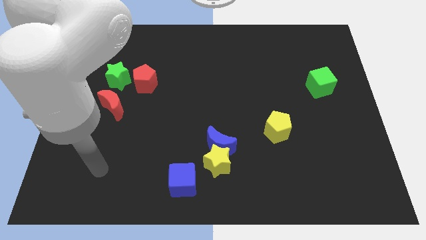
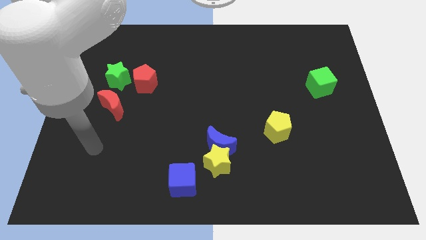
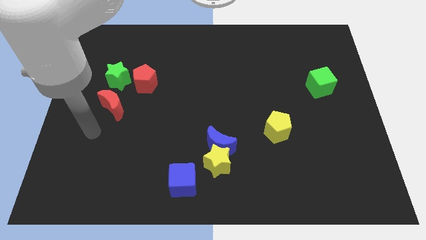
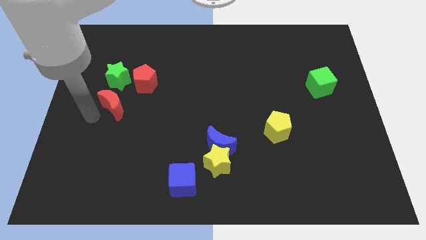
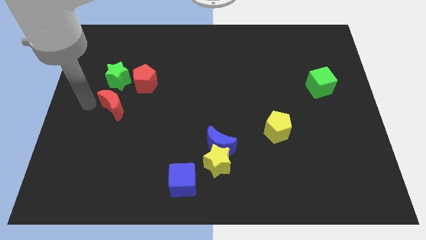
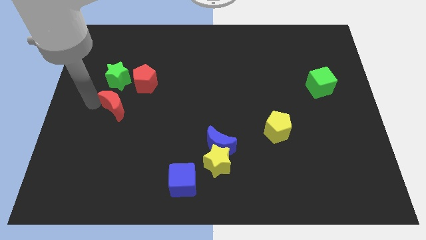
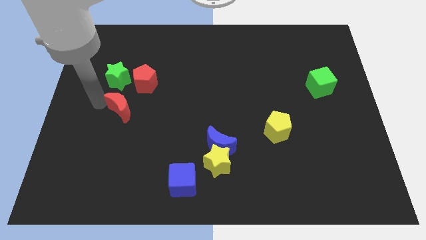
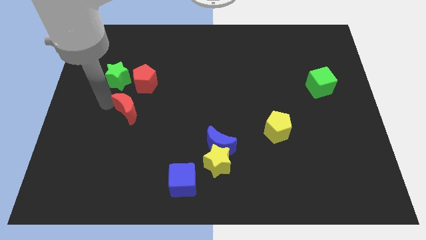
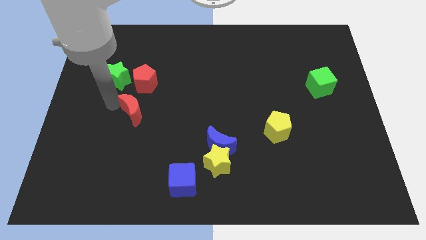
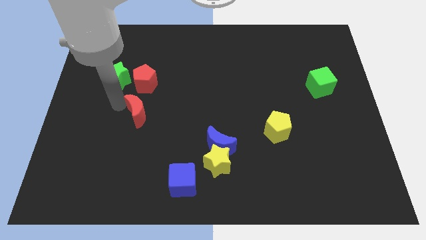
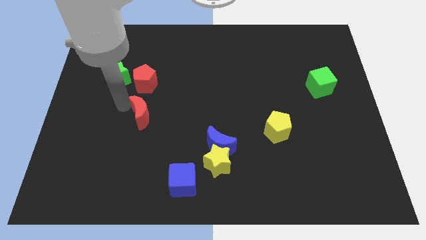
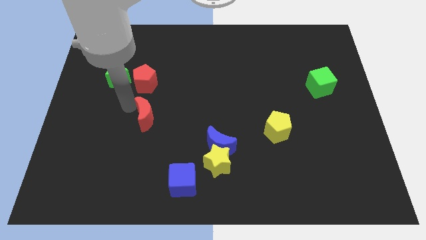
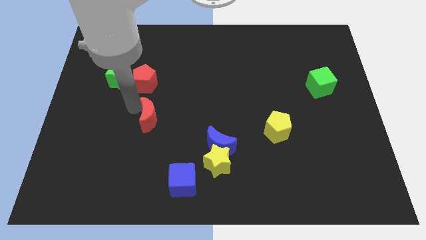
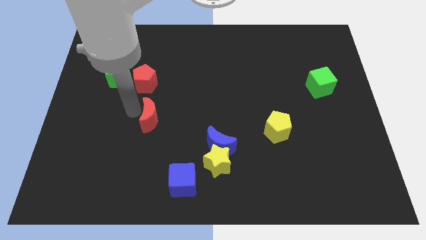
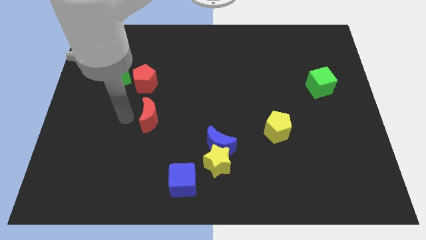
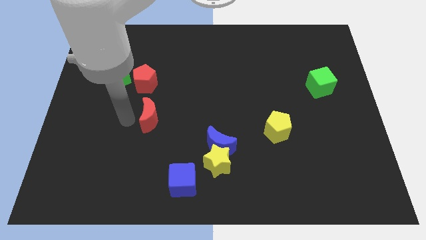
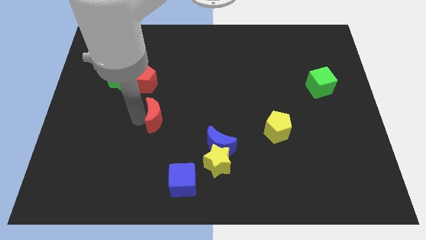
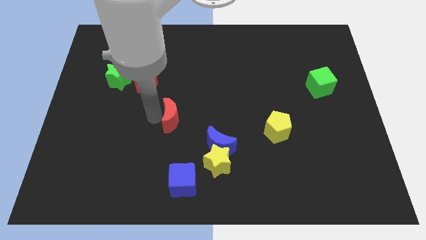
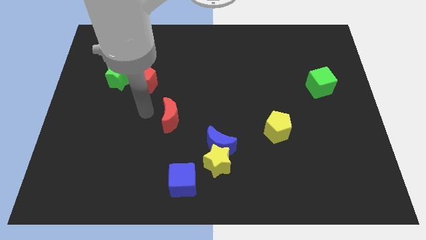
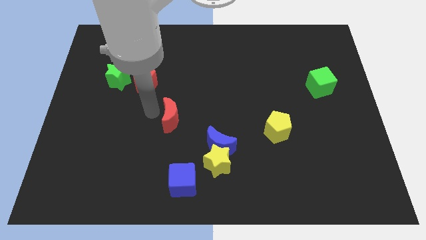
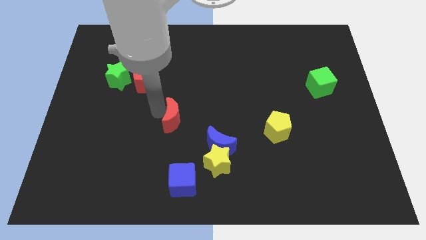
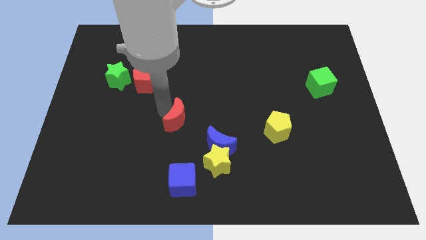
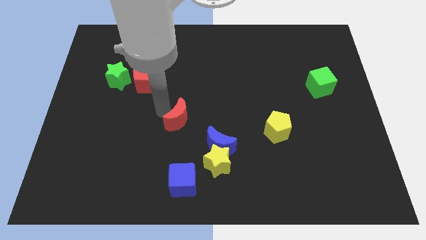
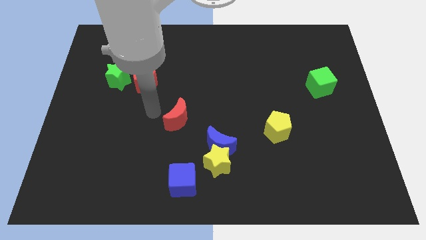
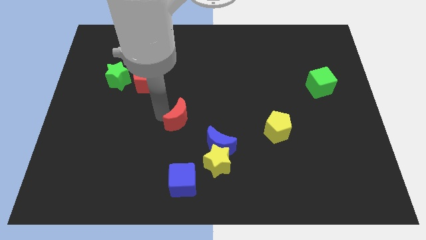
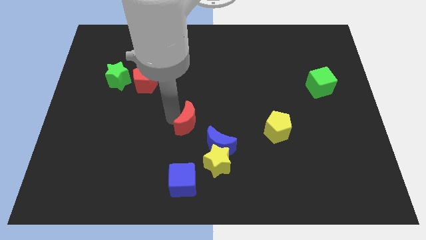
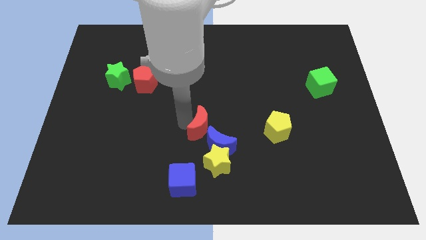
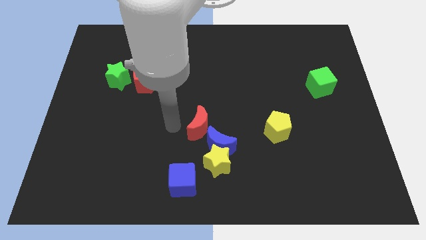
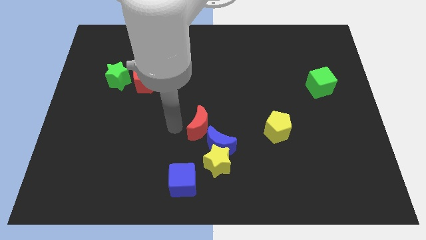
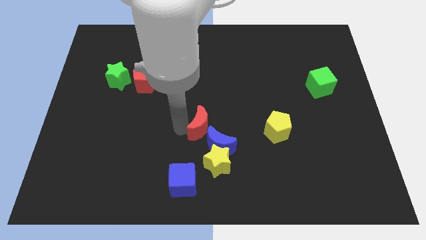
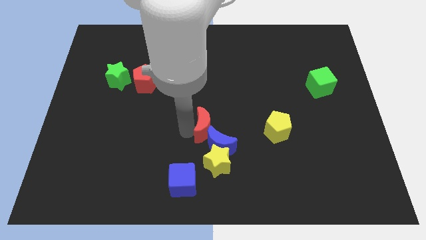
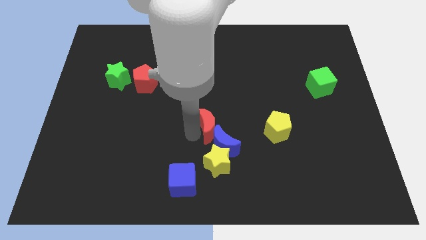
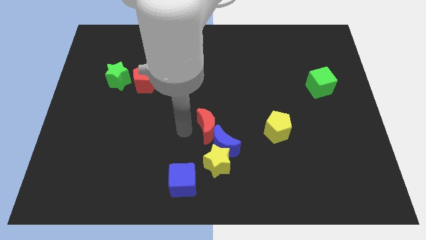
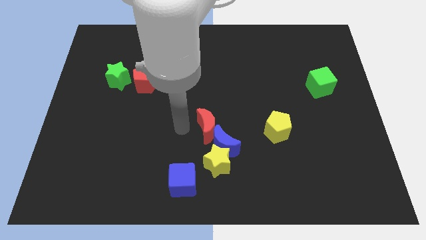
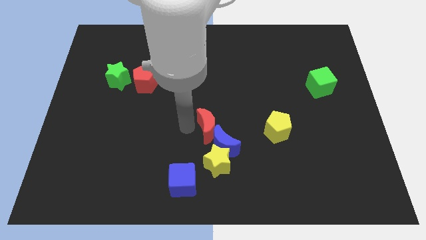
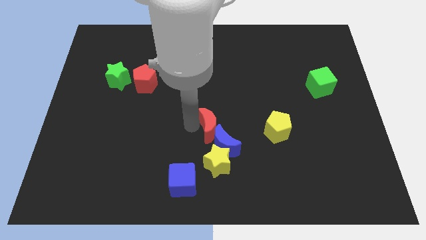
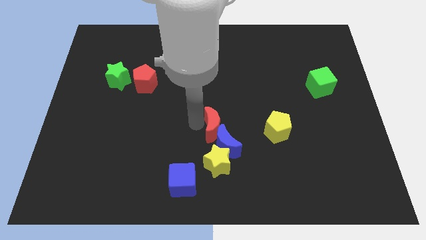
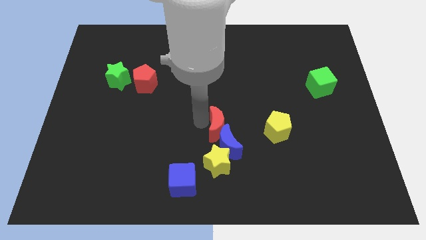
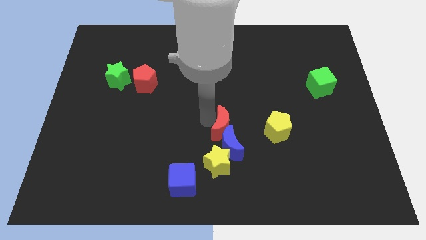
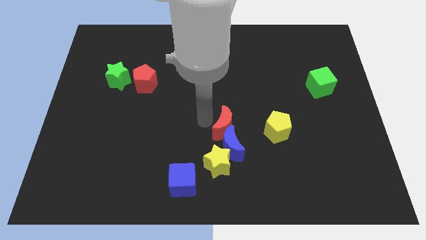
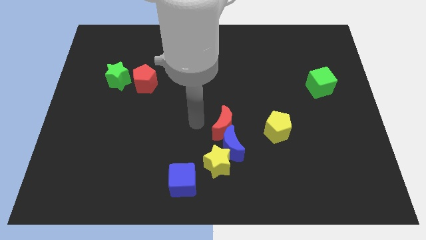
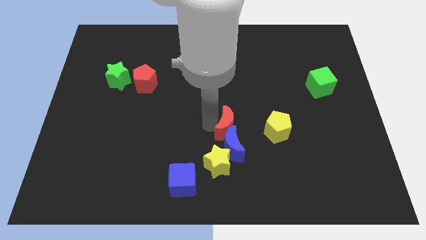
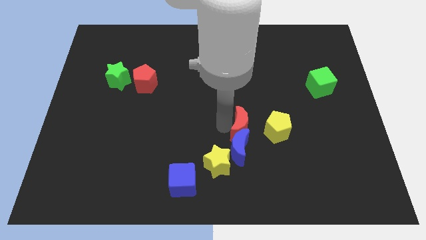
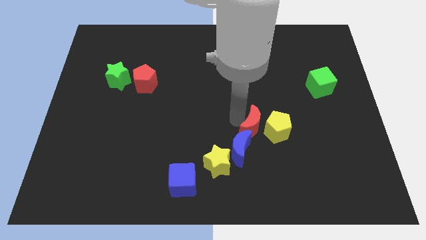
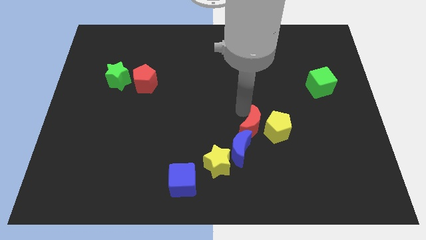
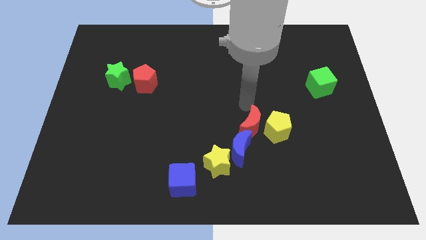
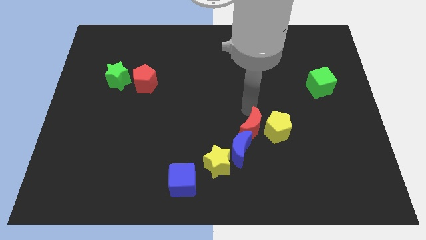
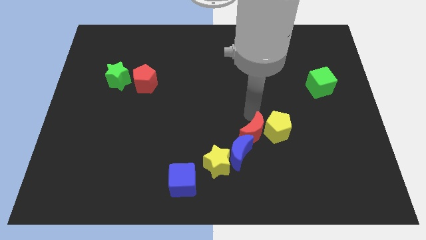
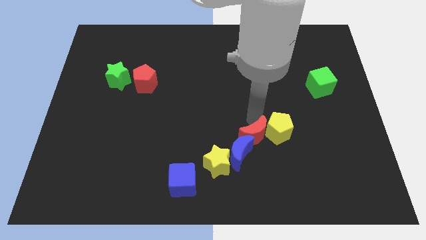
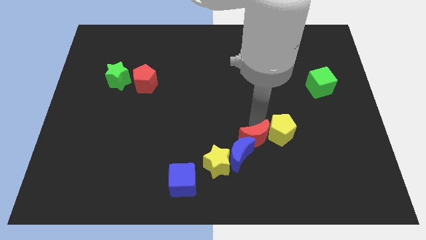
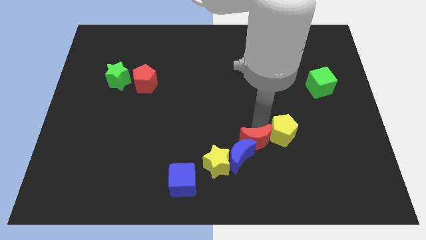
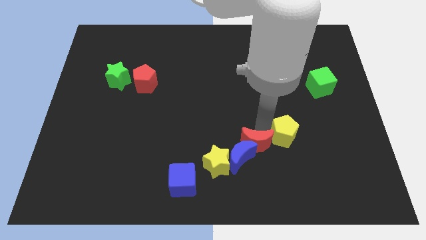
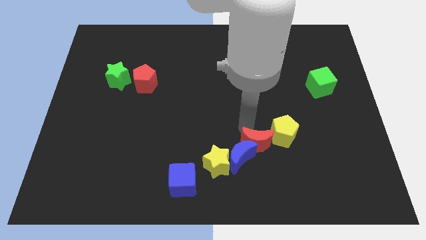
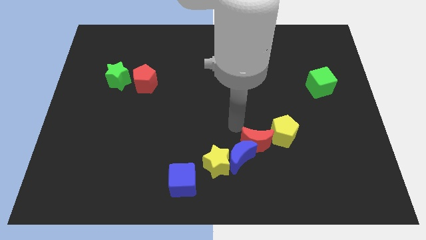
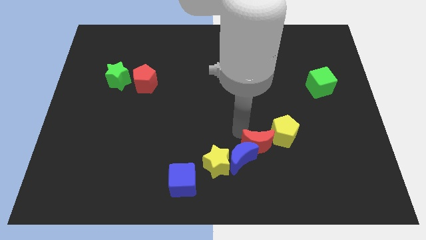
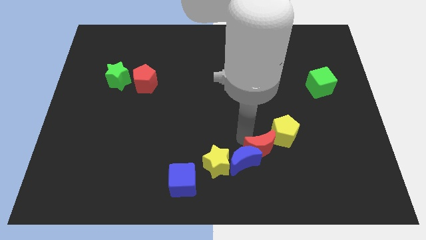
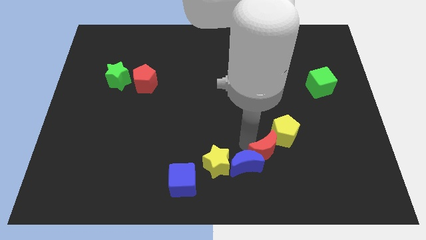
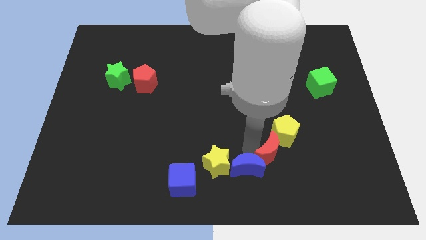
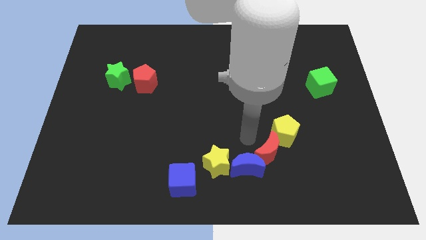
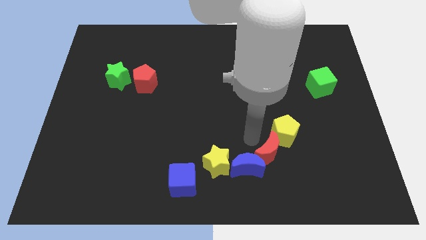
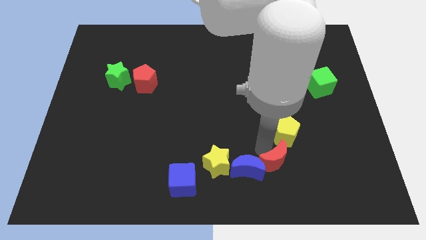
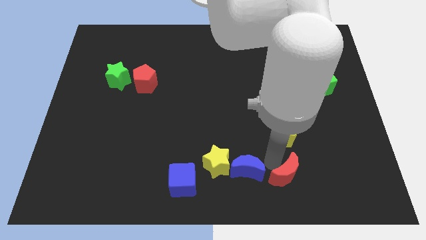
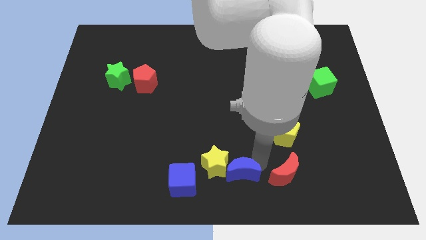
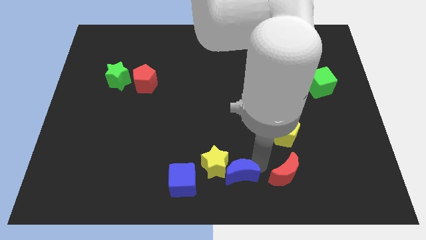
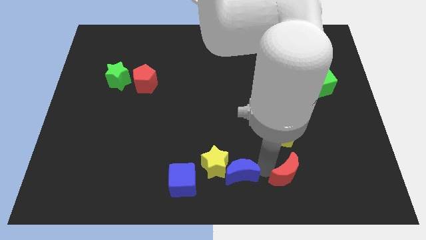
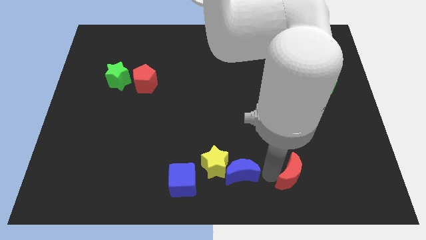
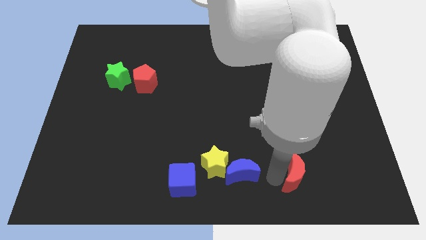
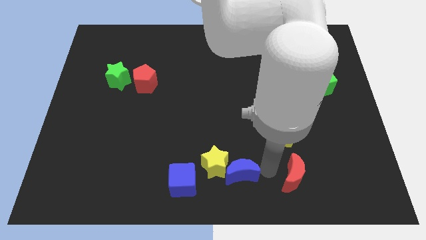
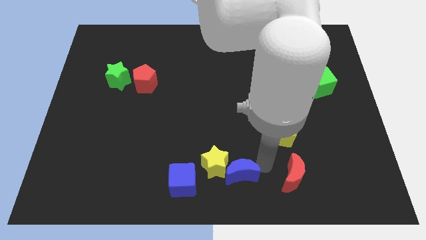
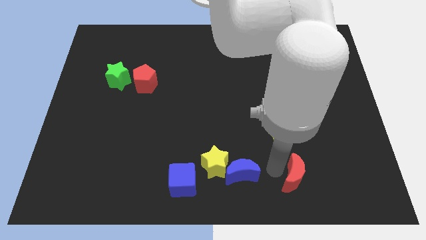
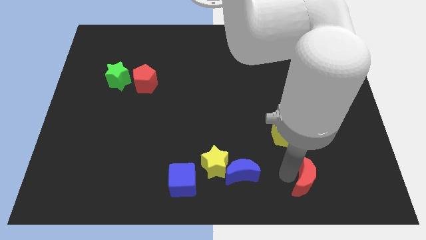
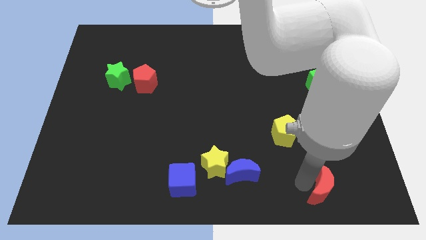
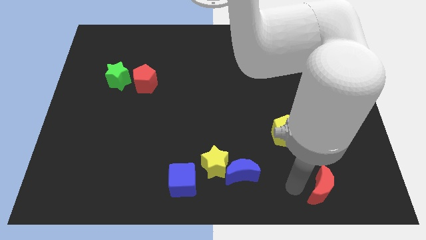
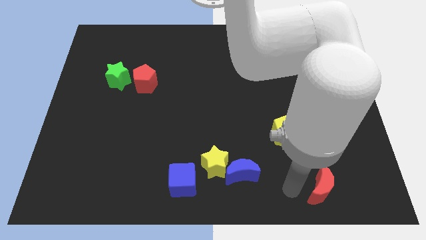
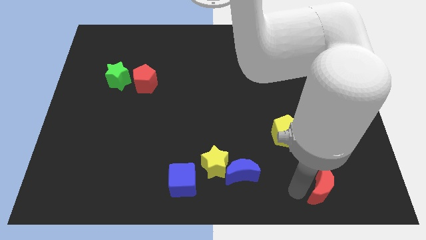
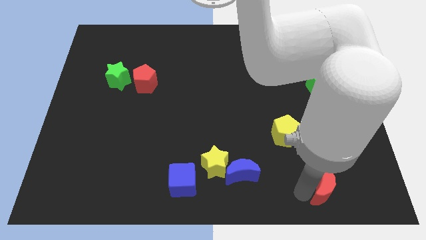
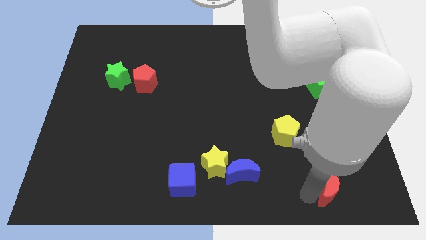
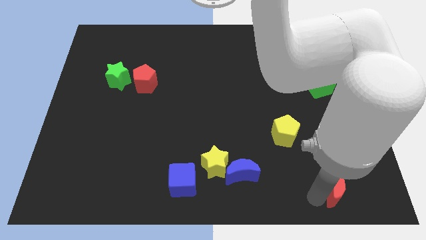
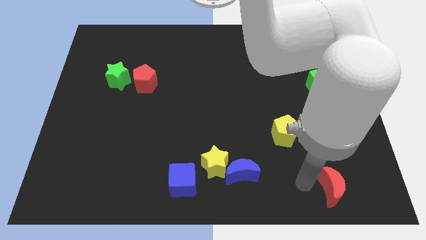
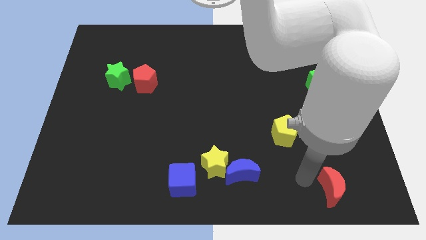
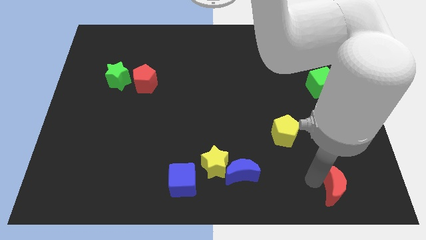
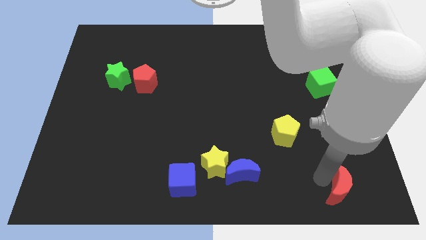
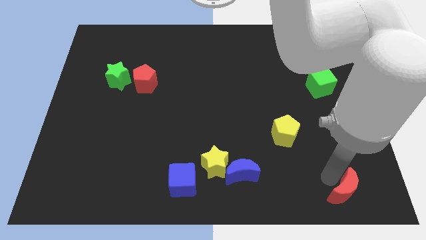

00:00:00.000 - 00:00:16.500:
put the red moon to the bottom right of the board
